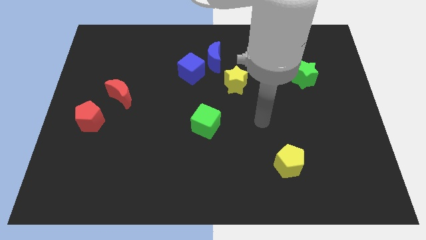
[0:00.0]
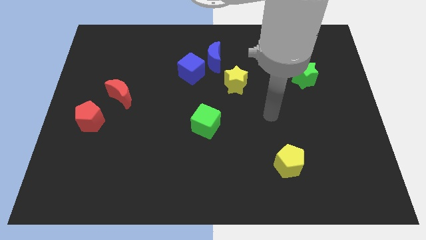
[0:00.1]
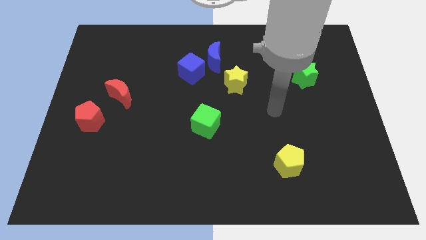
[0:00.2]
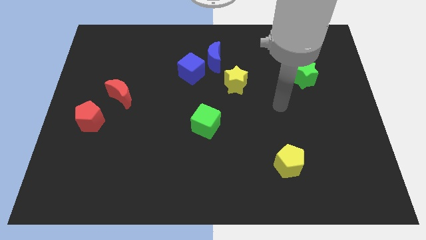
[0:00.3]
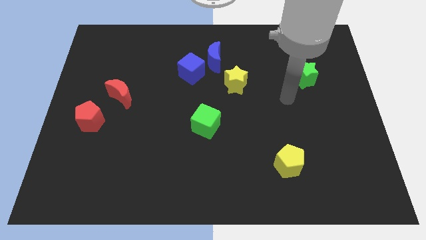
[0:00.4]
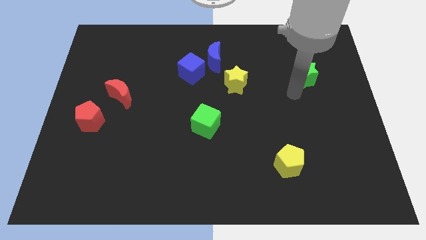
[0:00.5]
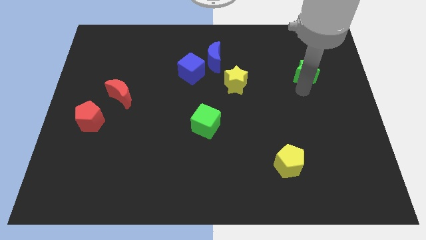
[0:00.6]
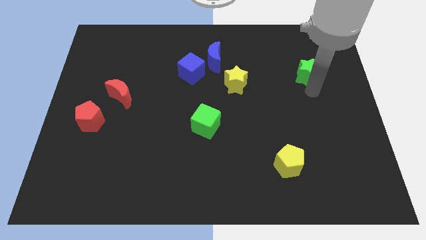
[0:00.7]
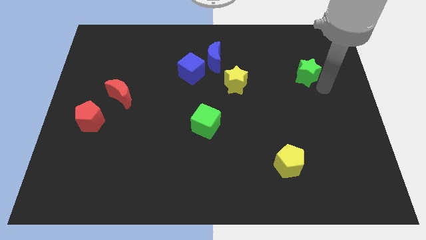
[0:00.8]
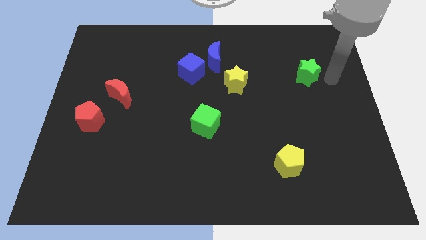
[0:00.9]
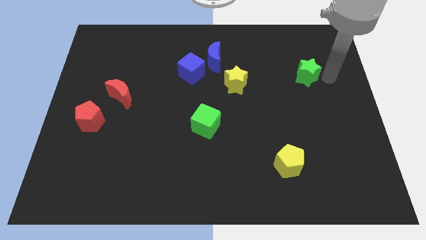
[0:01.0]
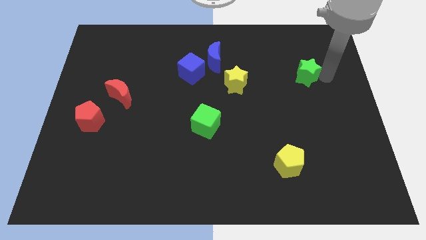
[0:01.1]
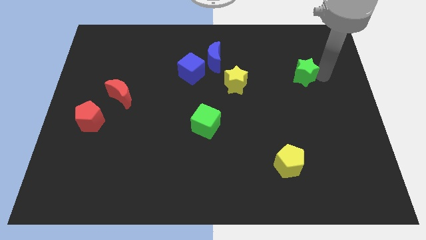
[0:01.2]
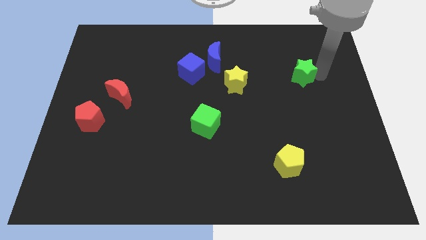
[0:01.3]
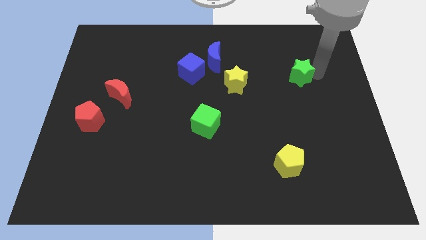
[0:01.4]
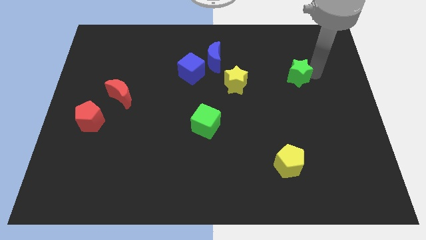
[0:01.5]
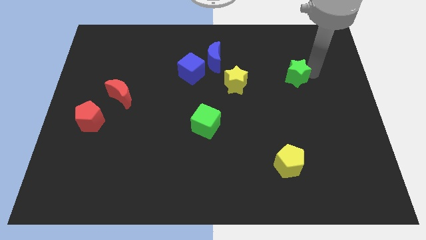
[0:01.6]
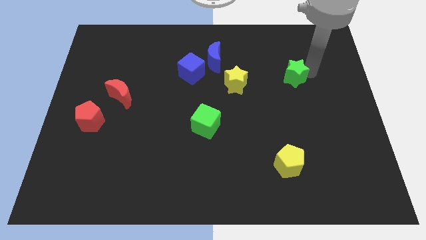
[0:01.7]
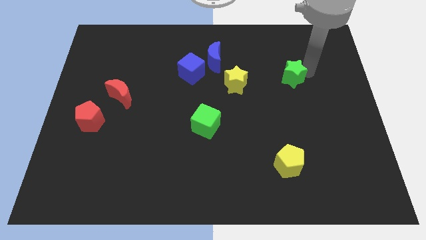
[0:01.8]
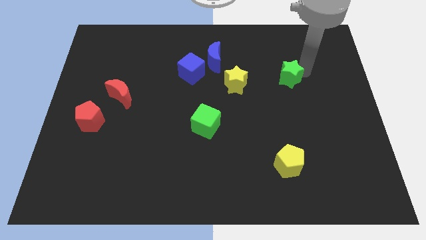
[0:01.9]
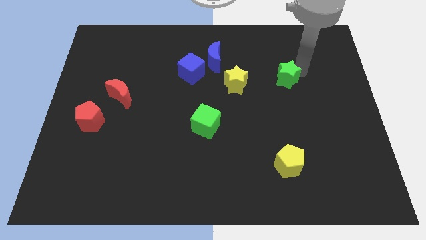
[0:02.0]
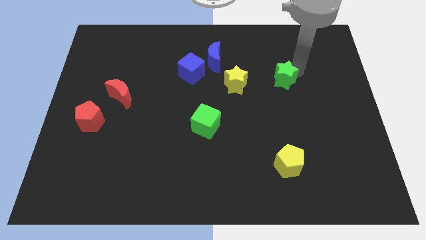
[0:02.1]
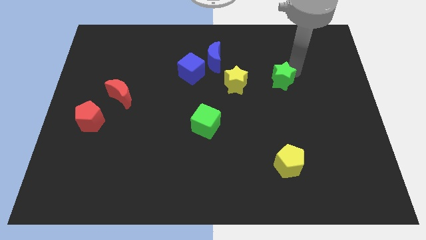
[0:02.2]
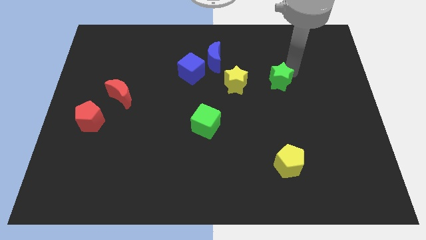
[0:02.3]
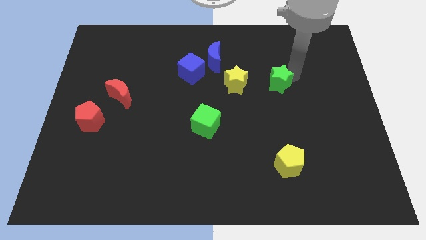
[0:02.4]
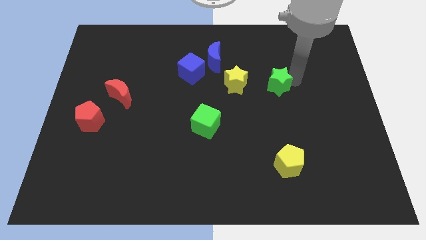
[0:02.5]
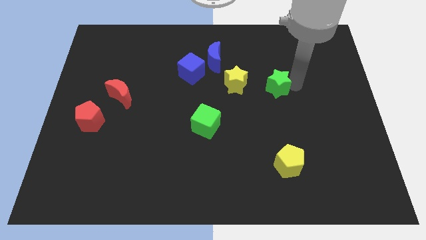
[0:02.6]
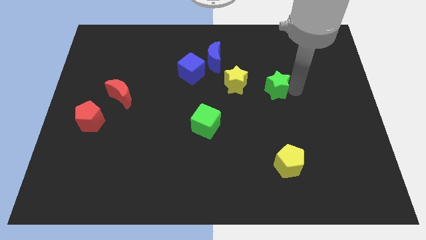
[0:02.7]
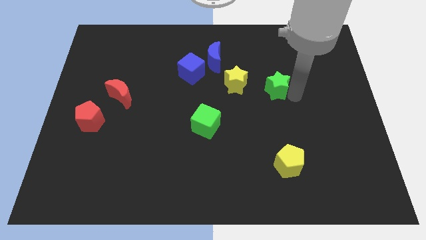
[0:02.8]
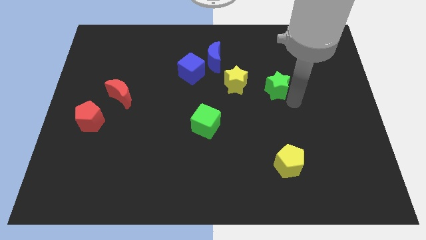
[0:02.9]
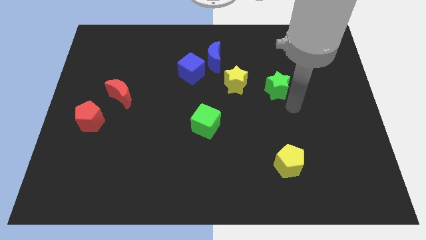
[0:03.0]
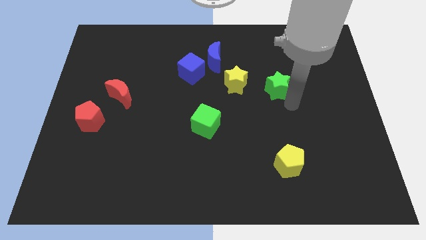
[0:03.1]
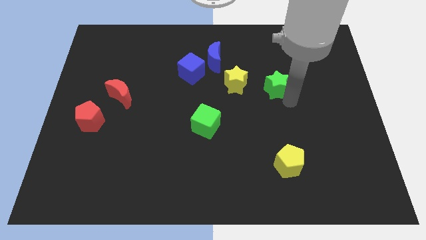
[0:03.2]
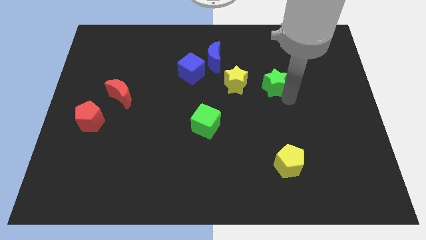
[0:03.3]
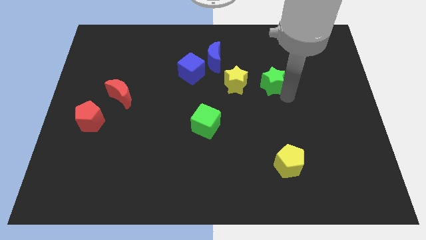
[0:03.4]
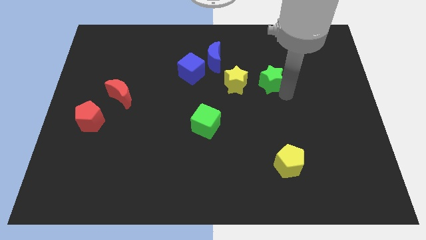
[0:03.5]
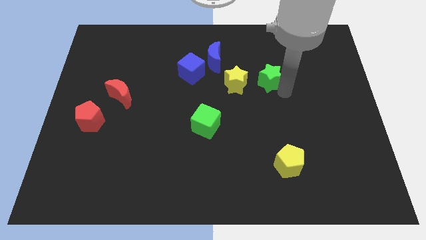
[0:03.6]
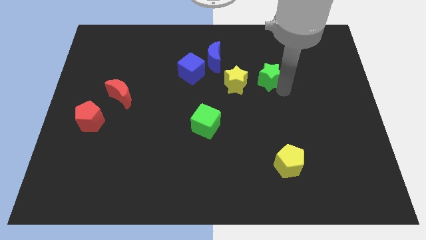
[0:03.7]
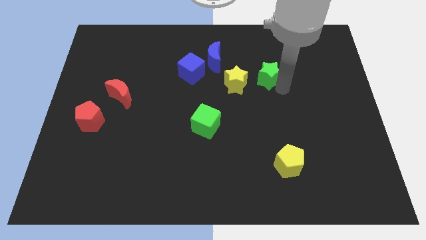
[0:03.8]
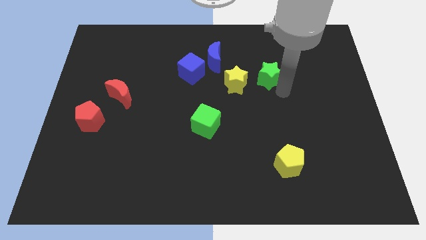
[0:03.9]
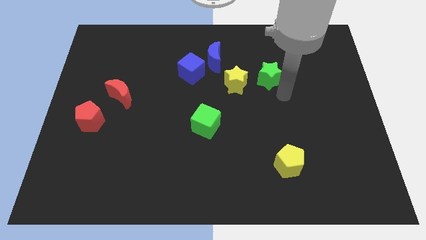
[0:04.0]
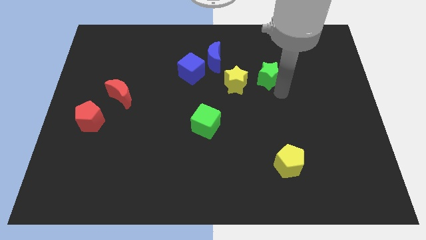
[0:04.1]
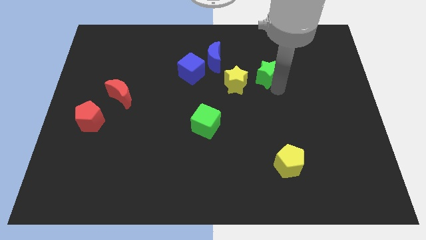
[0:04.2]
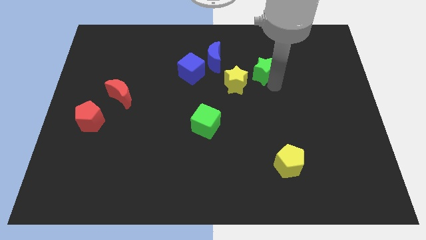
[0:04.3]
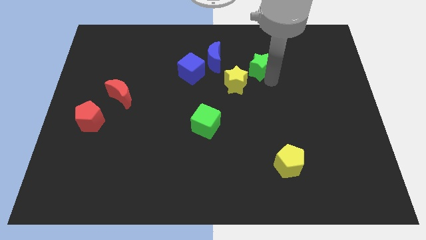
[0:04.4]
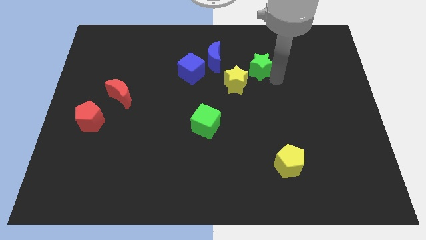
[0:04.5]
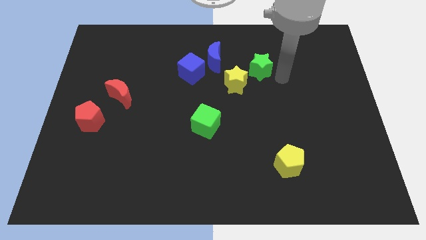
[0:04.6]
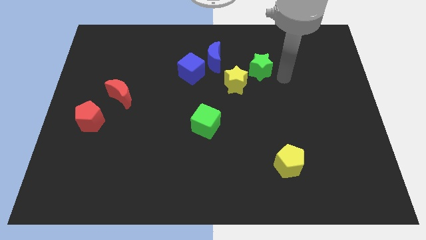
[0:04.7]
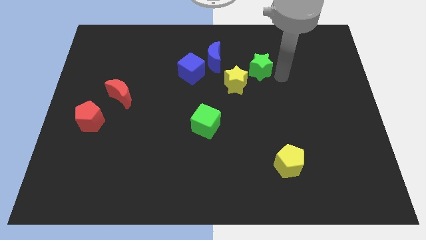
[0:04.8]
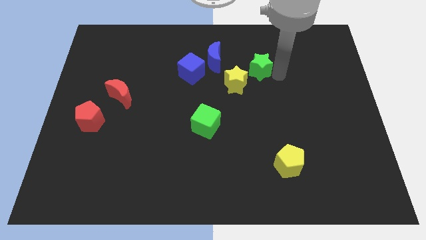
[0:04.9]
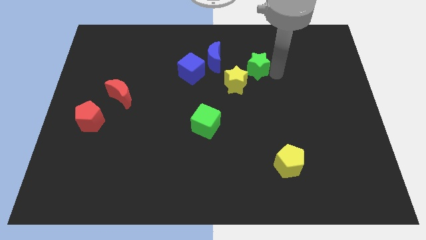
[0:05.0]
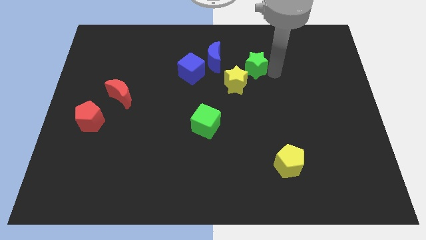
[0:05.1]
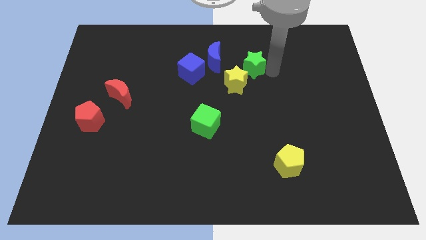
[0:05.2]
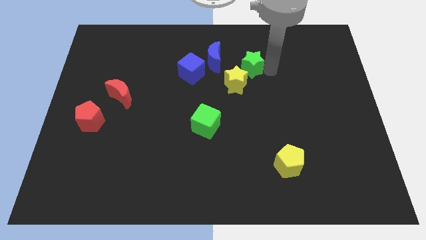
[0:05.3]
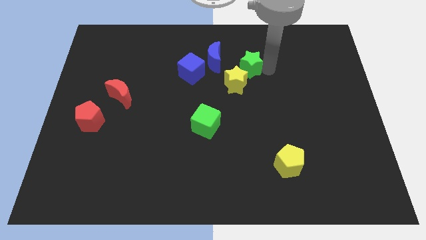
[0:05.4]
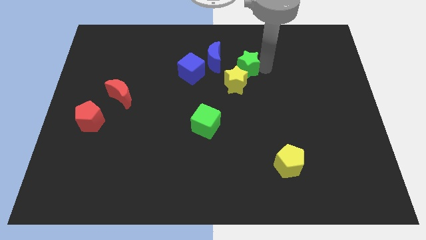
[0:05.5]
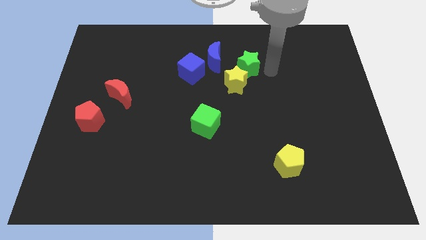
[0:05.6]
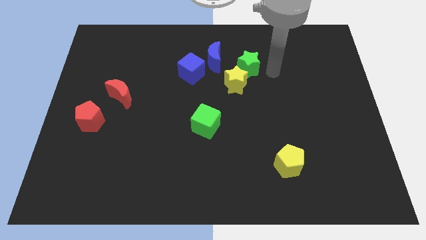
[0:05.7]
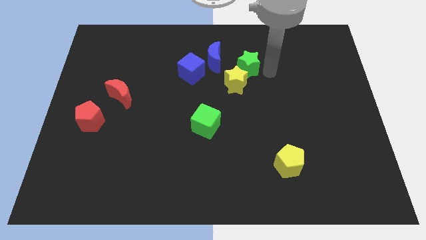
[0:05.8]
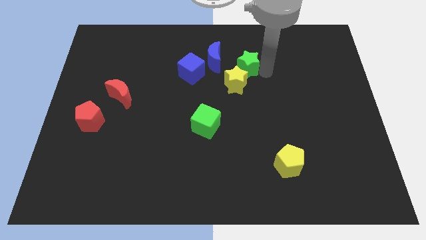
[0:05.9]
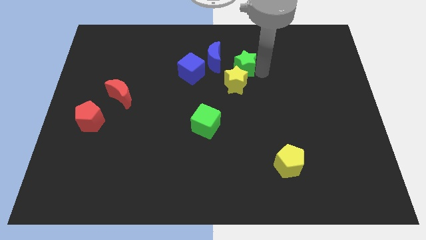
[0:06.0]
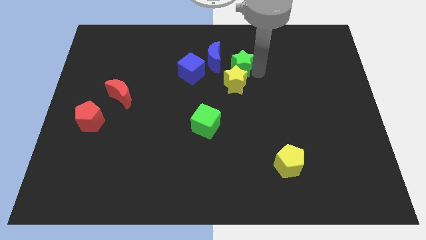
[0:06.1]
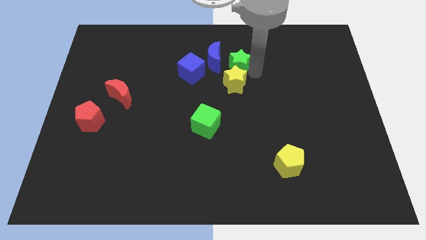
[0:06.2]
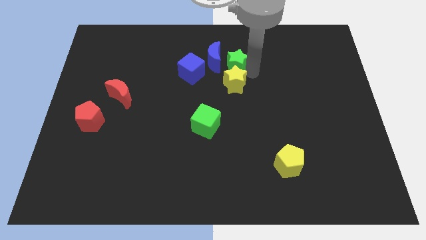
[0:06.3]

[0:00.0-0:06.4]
slide the green star to the blue moon

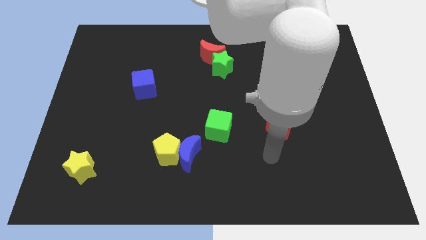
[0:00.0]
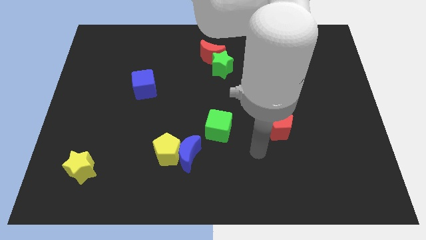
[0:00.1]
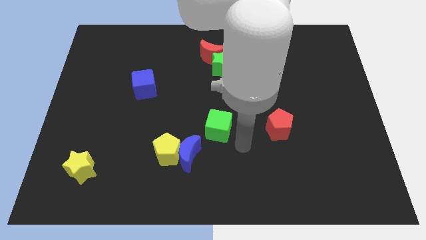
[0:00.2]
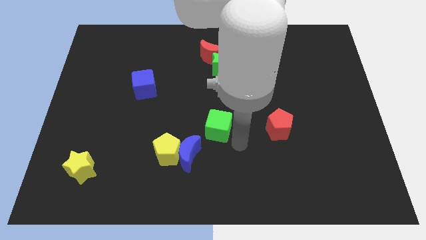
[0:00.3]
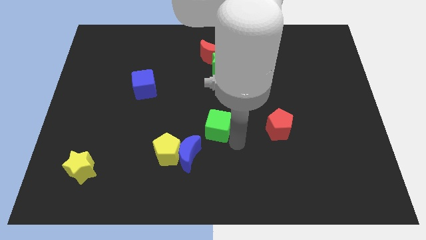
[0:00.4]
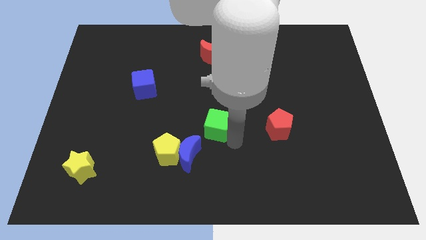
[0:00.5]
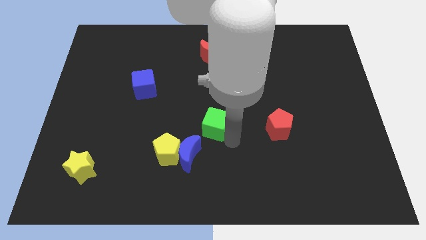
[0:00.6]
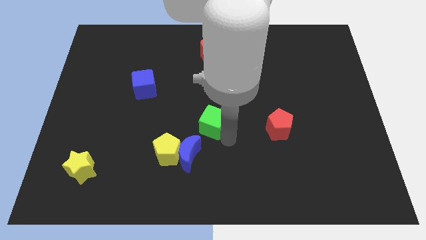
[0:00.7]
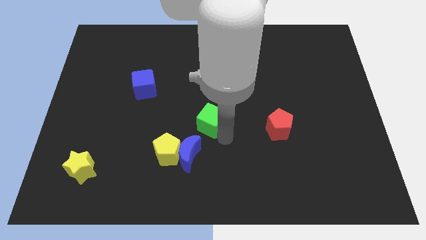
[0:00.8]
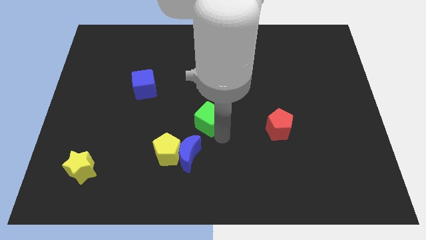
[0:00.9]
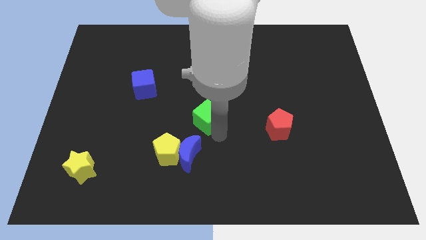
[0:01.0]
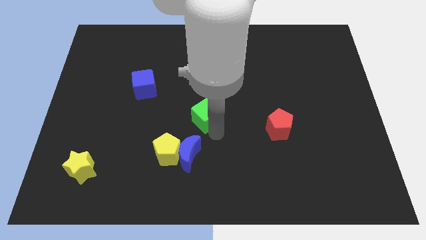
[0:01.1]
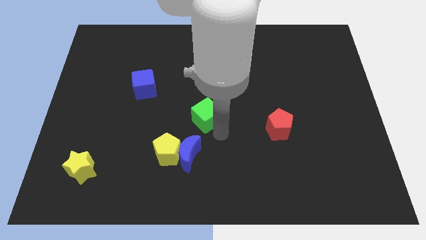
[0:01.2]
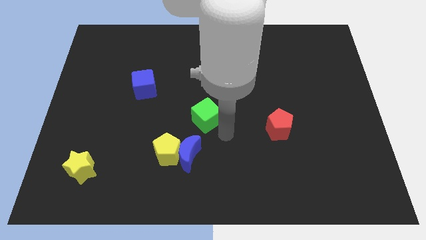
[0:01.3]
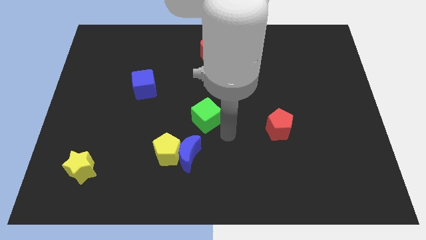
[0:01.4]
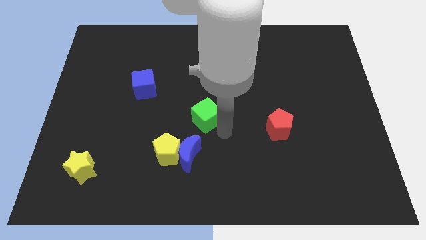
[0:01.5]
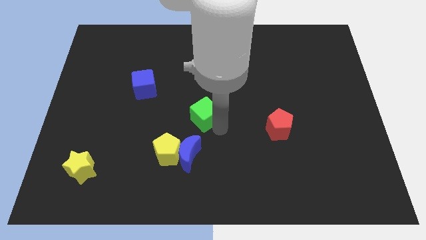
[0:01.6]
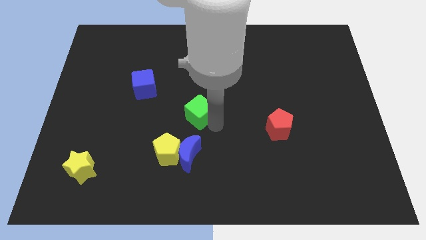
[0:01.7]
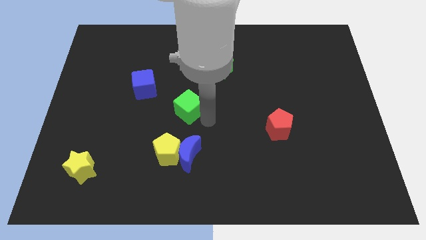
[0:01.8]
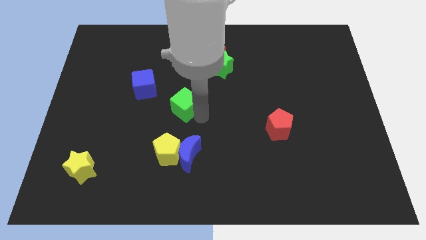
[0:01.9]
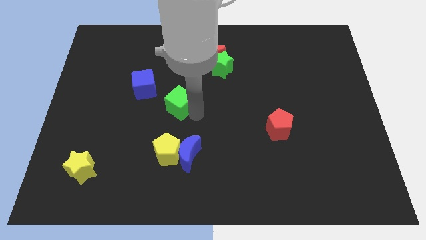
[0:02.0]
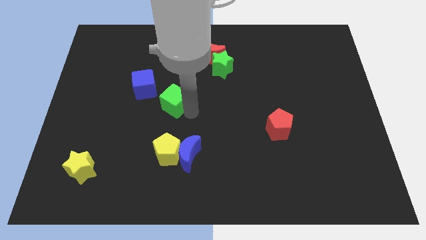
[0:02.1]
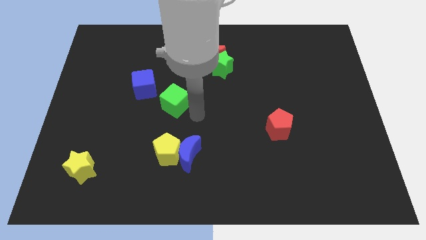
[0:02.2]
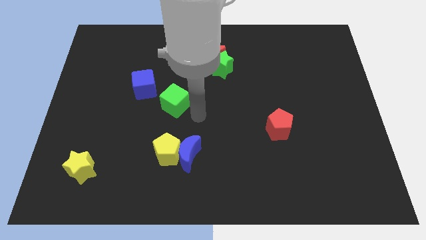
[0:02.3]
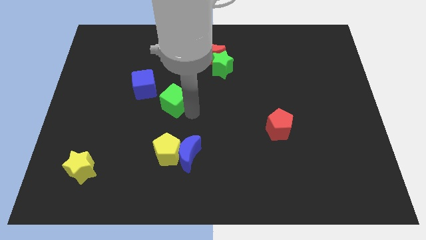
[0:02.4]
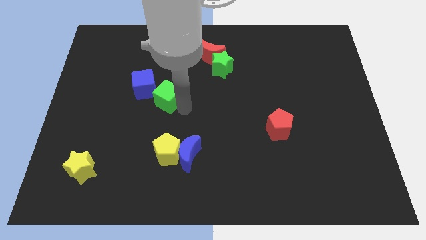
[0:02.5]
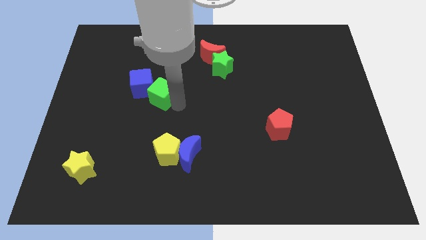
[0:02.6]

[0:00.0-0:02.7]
put the green cube close to the blue cube
